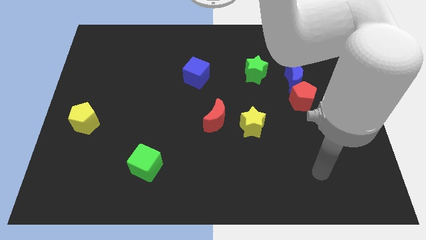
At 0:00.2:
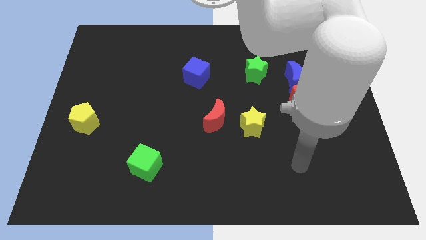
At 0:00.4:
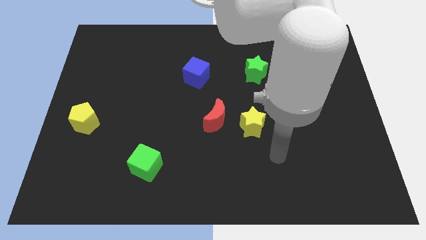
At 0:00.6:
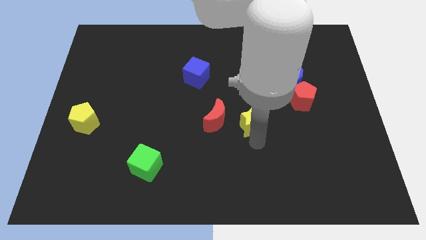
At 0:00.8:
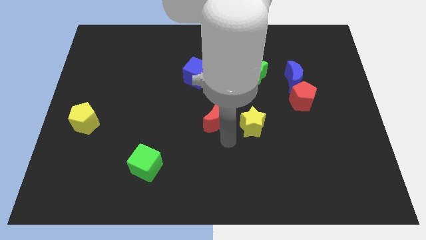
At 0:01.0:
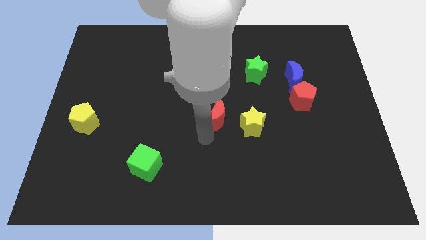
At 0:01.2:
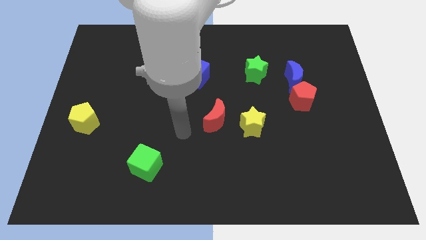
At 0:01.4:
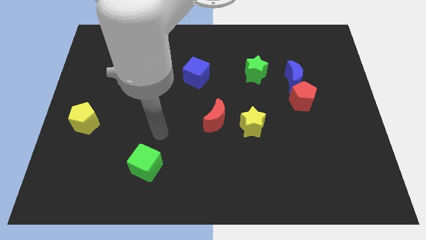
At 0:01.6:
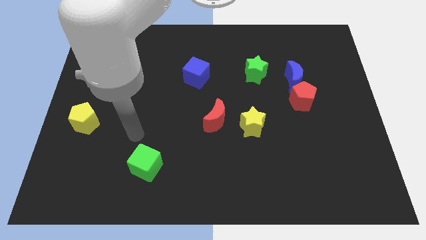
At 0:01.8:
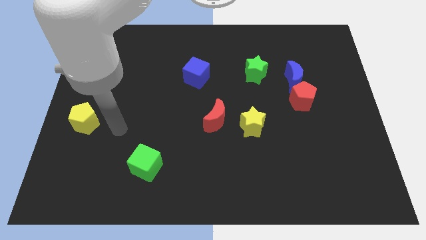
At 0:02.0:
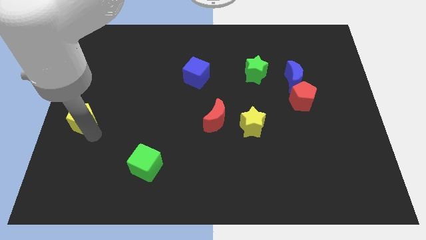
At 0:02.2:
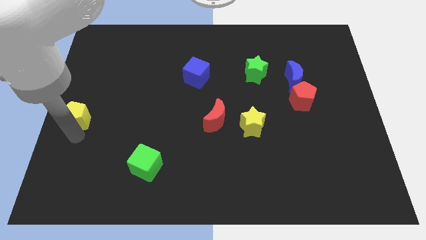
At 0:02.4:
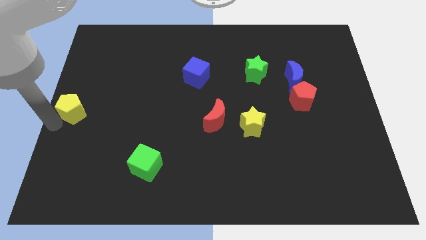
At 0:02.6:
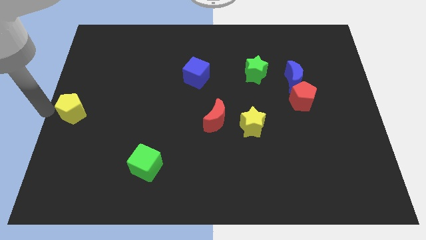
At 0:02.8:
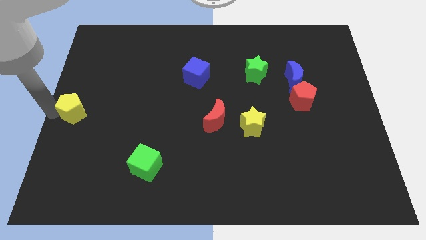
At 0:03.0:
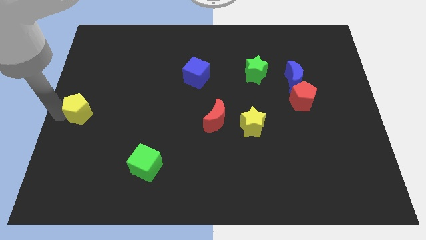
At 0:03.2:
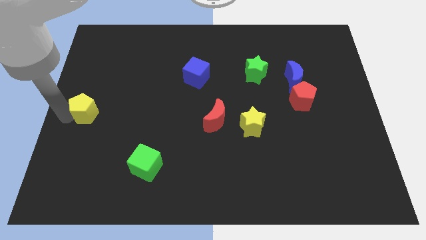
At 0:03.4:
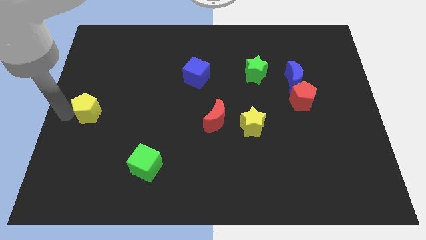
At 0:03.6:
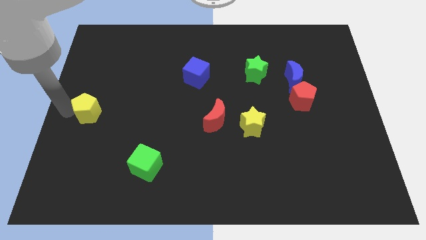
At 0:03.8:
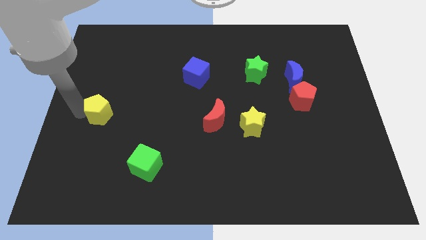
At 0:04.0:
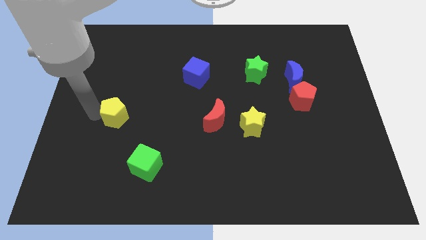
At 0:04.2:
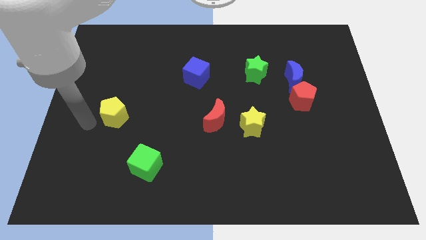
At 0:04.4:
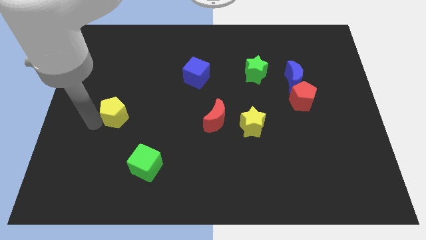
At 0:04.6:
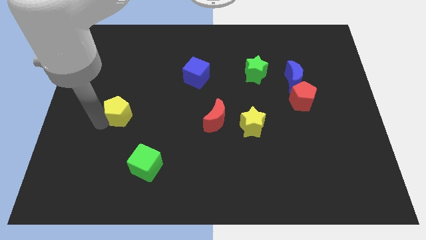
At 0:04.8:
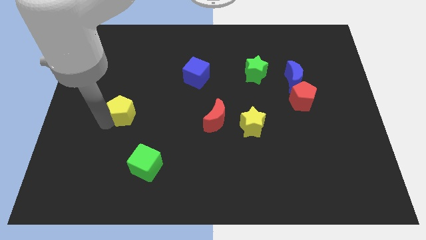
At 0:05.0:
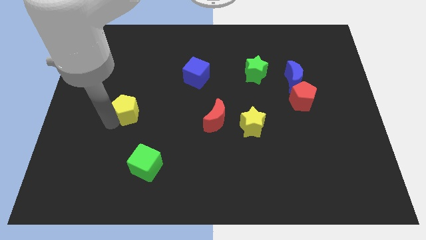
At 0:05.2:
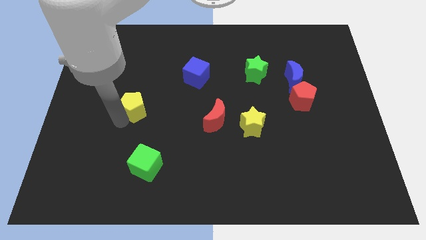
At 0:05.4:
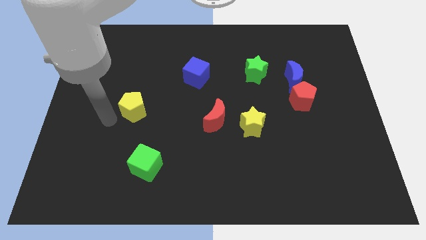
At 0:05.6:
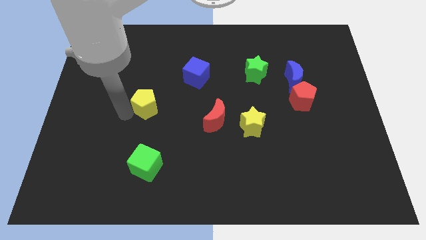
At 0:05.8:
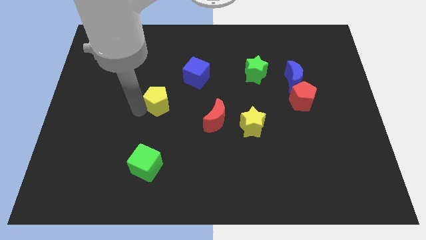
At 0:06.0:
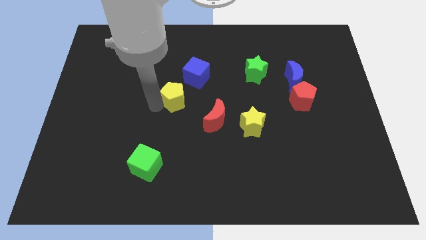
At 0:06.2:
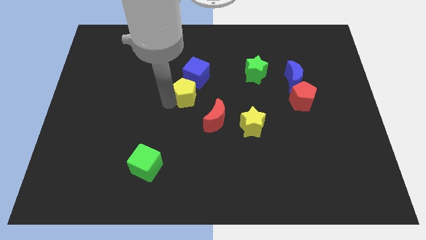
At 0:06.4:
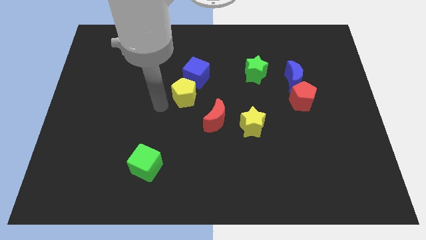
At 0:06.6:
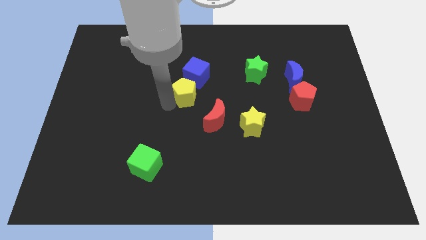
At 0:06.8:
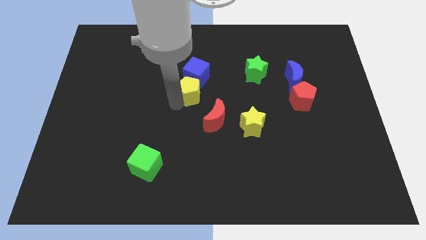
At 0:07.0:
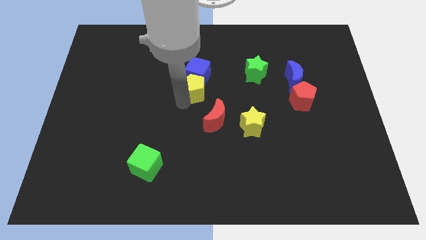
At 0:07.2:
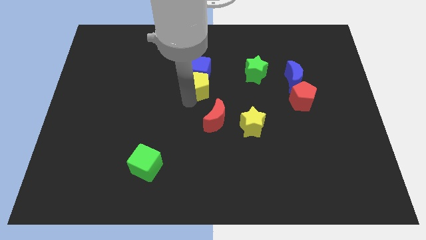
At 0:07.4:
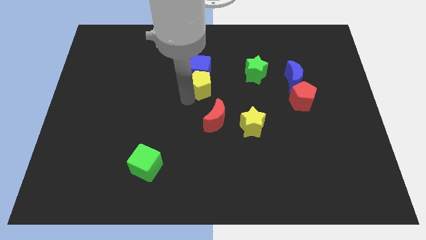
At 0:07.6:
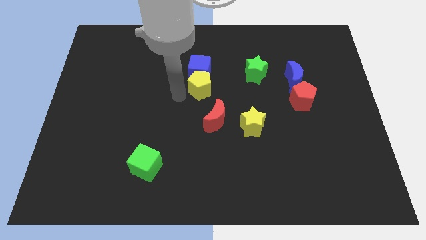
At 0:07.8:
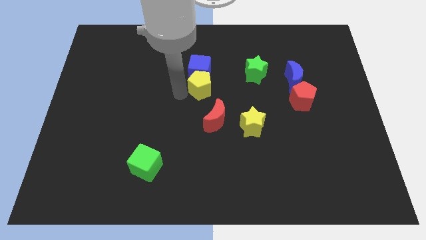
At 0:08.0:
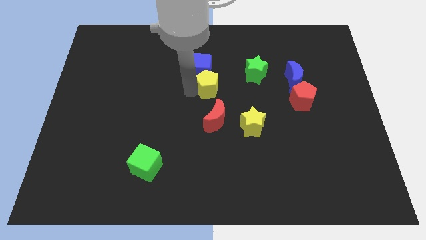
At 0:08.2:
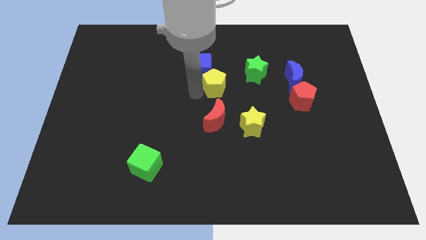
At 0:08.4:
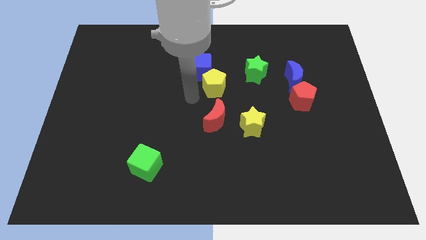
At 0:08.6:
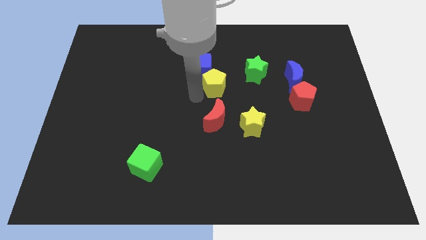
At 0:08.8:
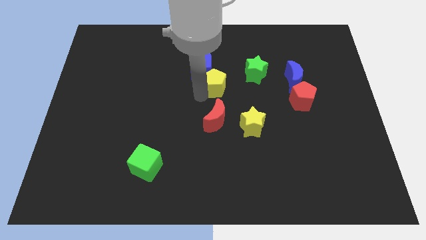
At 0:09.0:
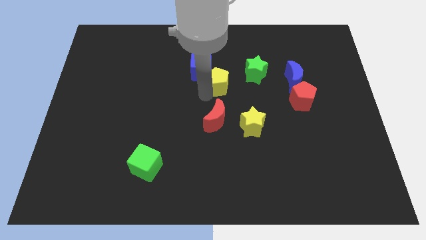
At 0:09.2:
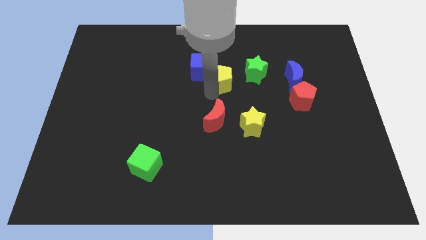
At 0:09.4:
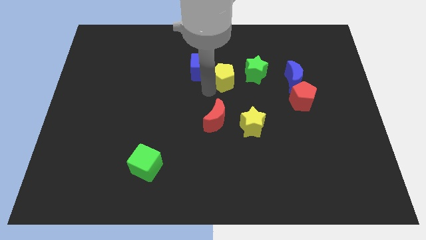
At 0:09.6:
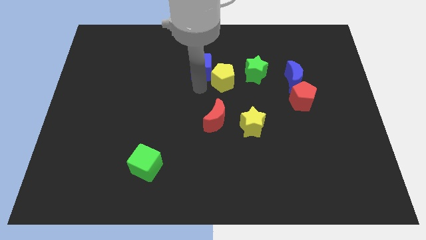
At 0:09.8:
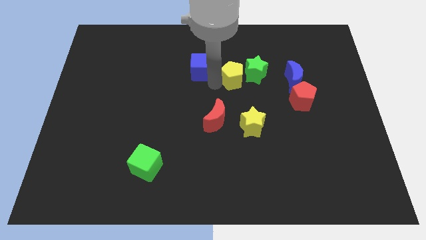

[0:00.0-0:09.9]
move the yellow pentagon towards the green star

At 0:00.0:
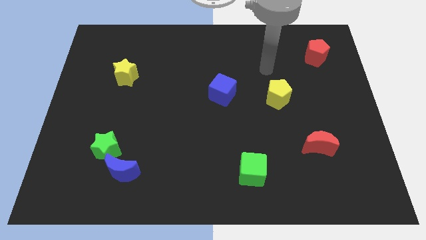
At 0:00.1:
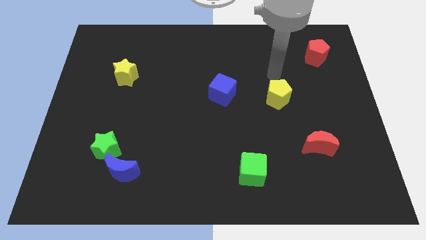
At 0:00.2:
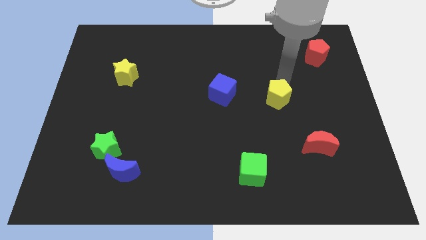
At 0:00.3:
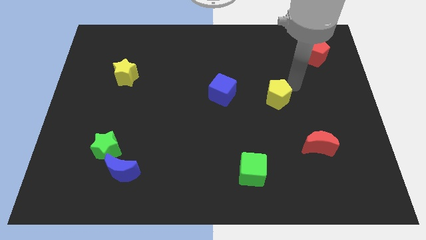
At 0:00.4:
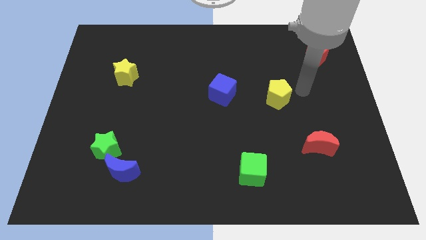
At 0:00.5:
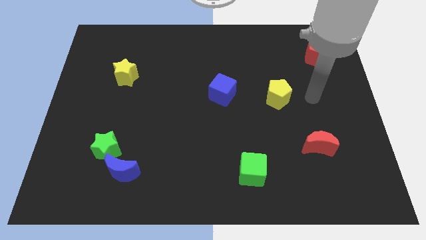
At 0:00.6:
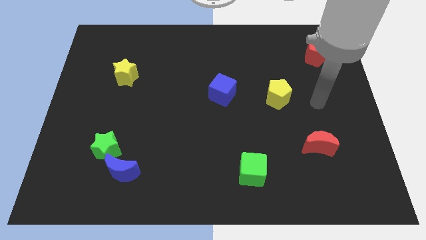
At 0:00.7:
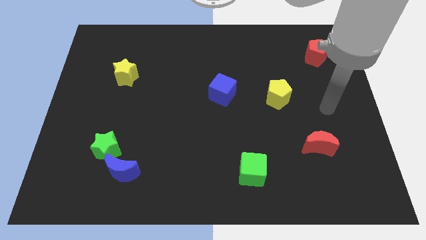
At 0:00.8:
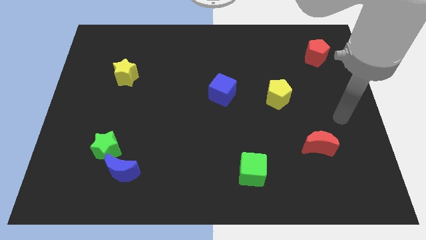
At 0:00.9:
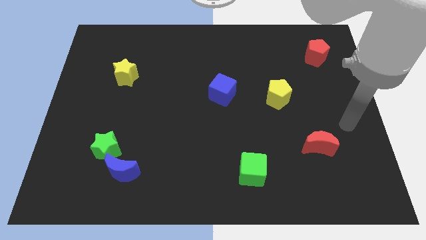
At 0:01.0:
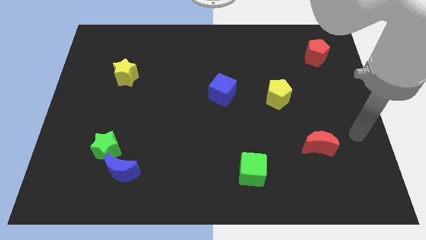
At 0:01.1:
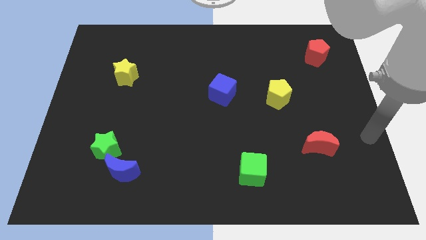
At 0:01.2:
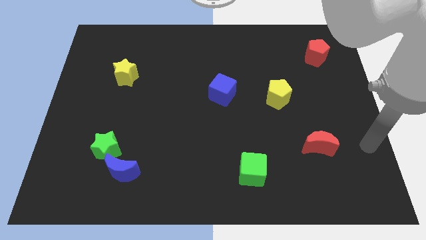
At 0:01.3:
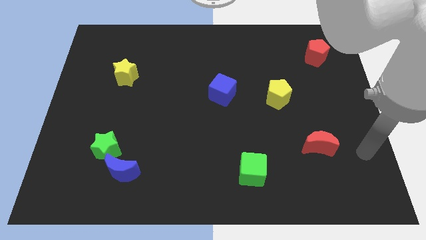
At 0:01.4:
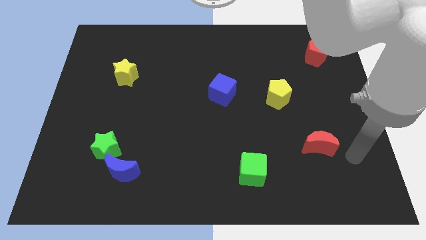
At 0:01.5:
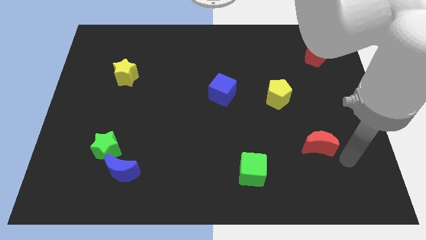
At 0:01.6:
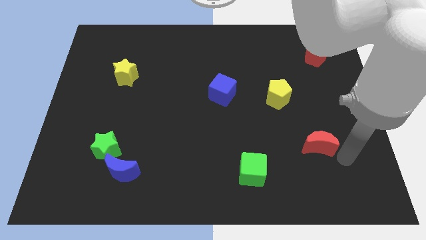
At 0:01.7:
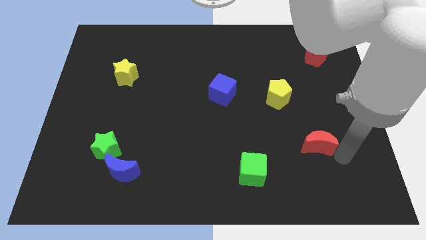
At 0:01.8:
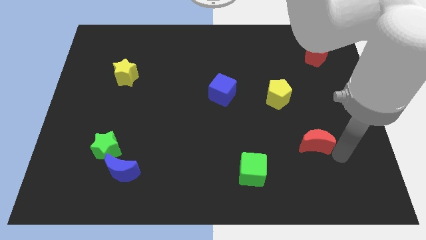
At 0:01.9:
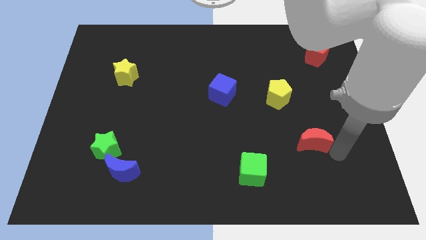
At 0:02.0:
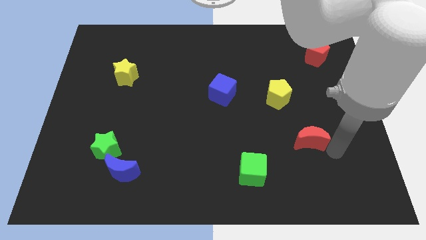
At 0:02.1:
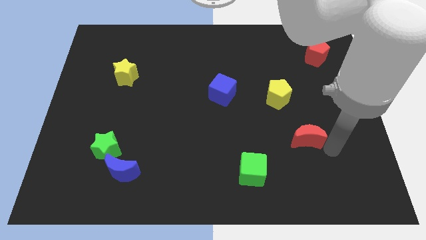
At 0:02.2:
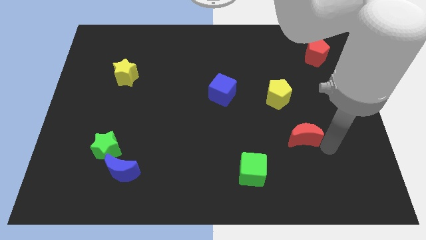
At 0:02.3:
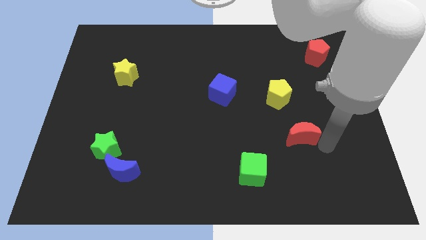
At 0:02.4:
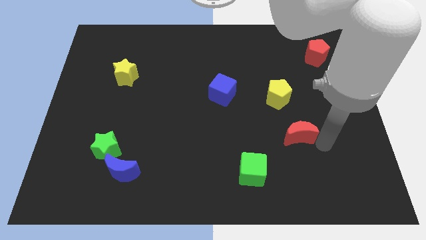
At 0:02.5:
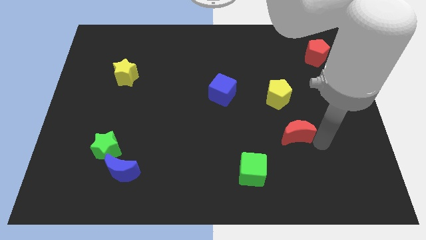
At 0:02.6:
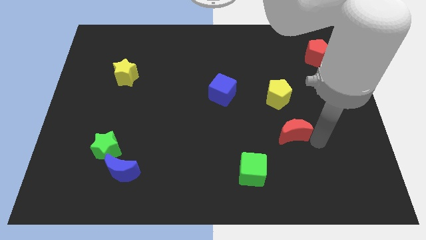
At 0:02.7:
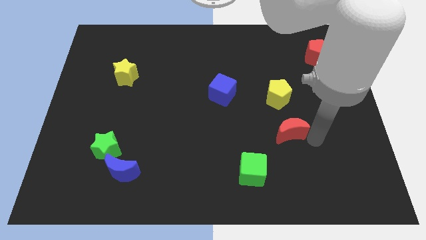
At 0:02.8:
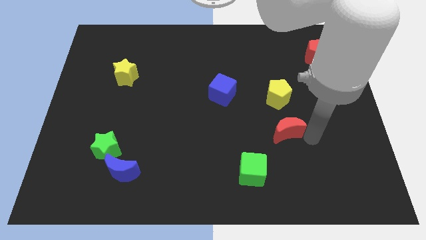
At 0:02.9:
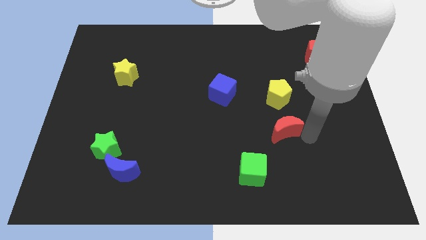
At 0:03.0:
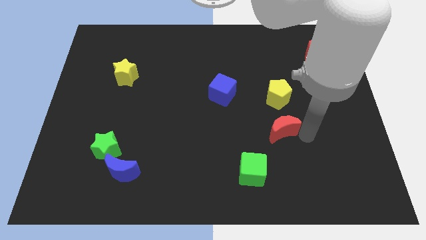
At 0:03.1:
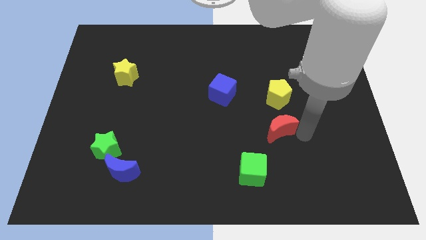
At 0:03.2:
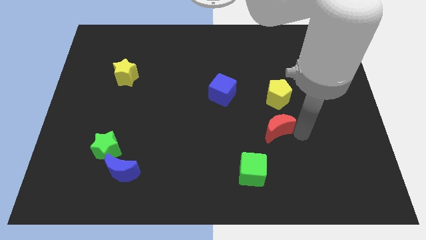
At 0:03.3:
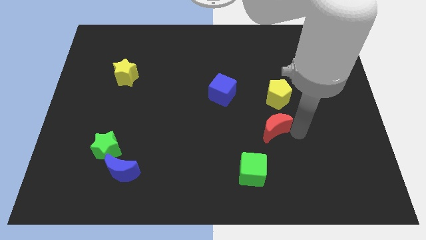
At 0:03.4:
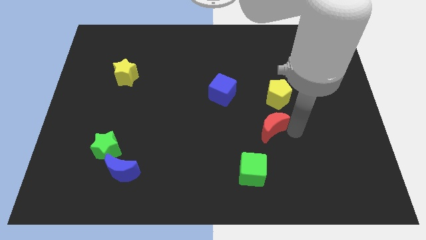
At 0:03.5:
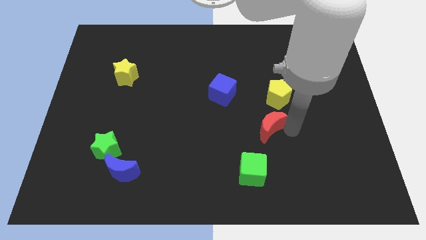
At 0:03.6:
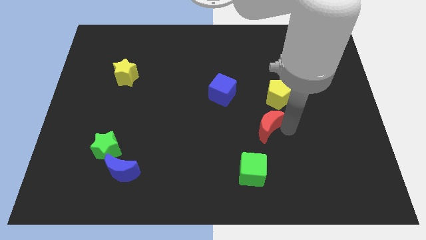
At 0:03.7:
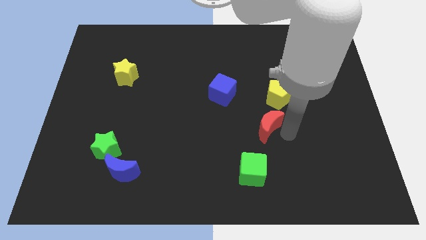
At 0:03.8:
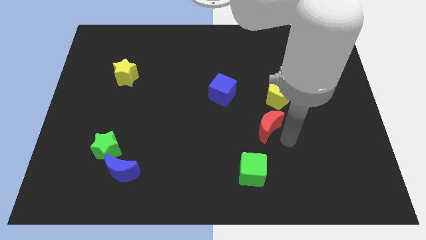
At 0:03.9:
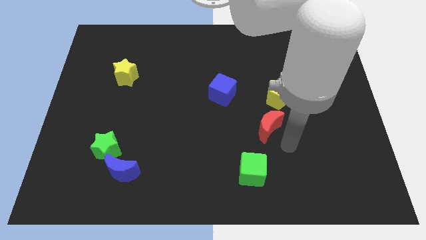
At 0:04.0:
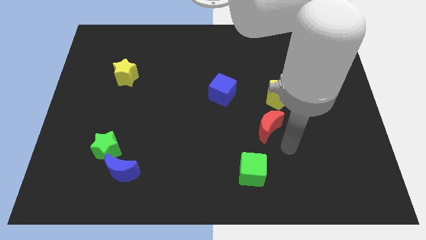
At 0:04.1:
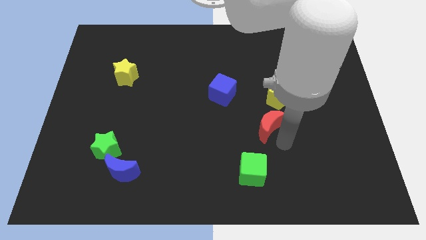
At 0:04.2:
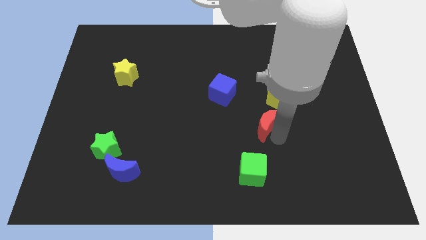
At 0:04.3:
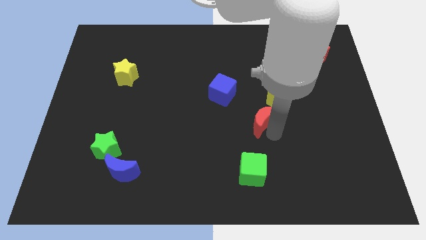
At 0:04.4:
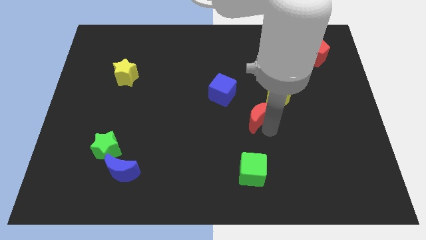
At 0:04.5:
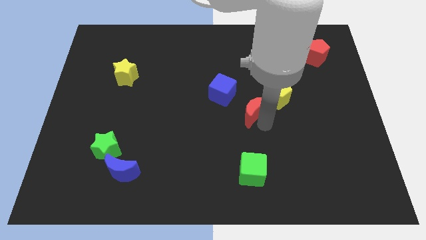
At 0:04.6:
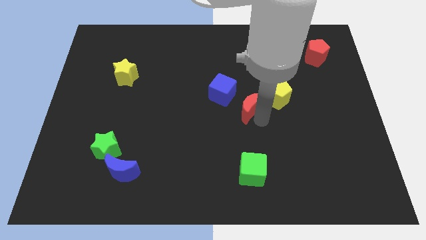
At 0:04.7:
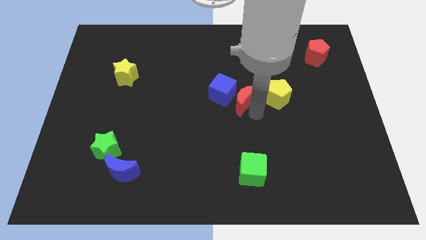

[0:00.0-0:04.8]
put the red moon next to the blue cube
